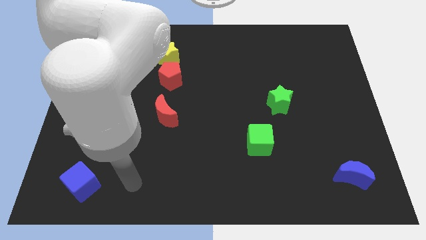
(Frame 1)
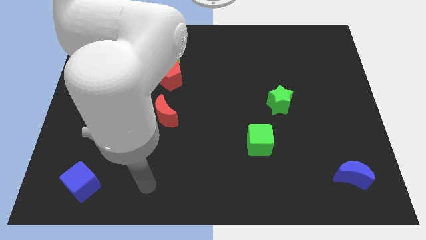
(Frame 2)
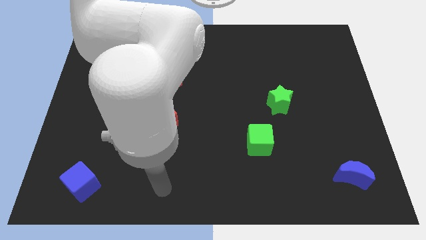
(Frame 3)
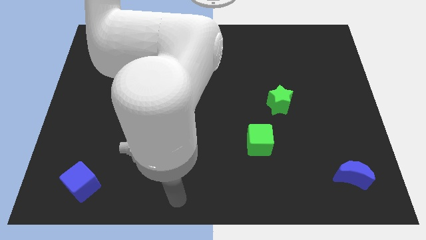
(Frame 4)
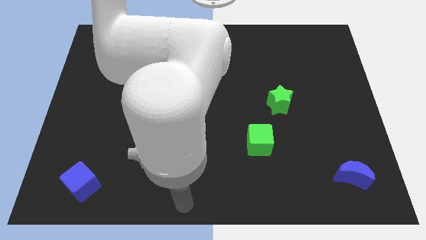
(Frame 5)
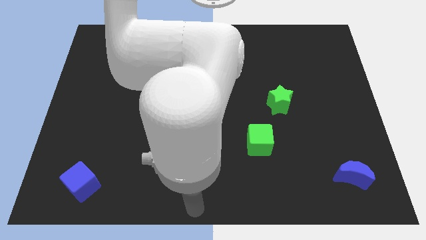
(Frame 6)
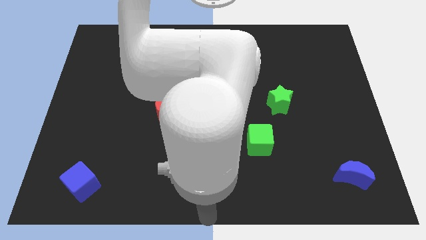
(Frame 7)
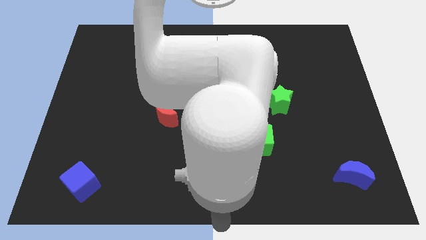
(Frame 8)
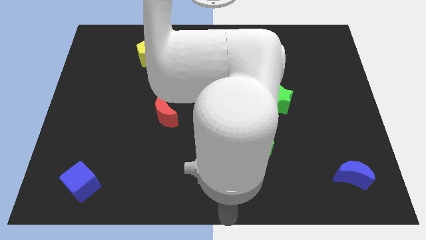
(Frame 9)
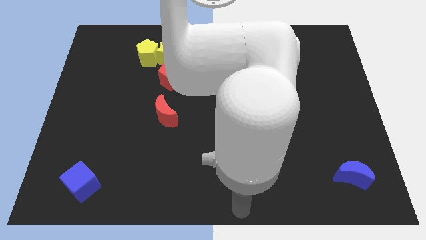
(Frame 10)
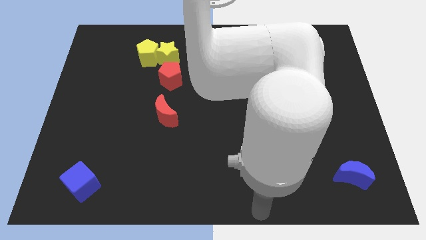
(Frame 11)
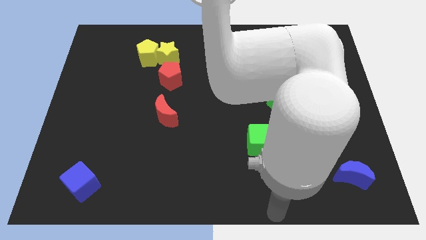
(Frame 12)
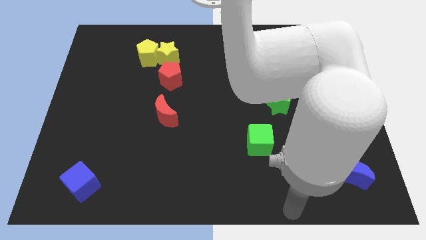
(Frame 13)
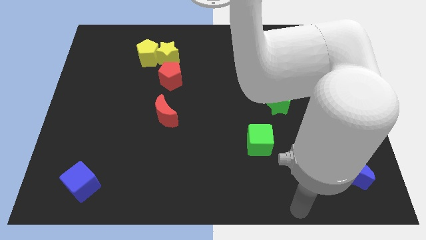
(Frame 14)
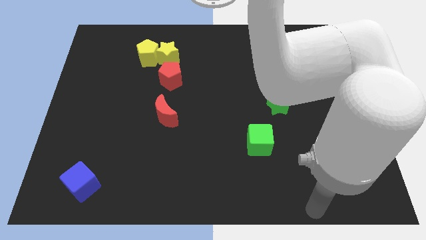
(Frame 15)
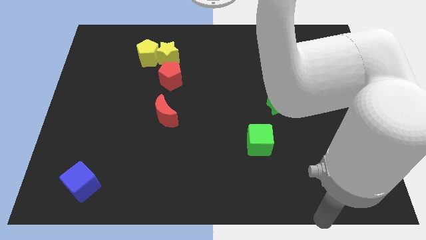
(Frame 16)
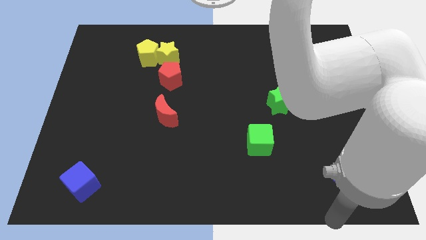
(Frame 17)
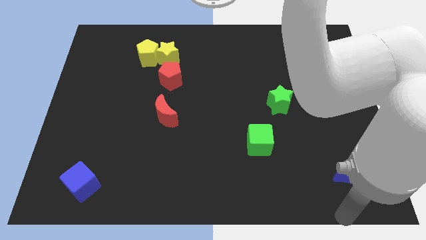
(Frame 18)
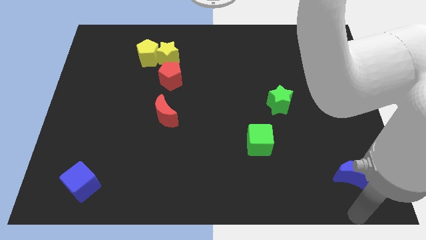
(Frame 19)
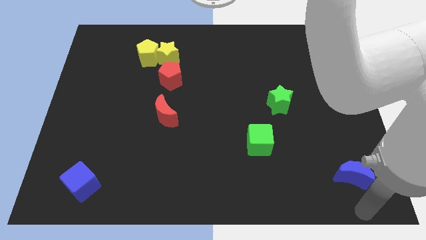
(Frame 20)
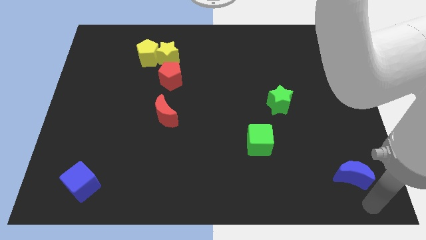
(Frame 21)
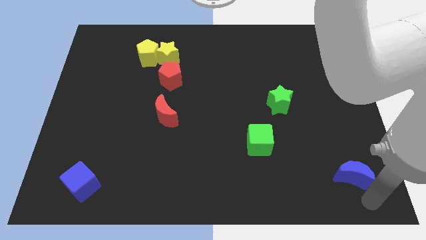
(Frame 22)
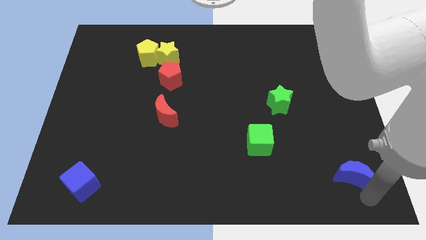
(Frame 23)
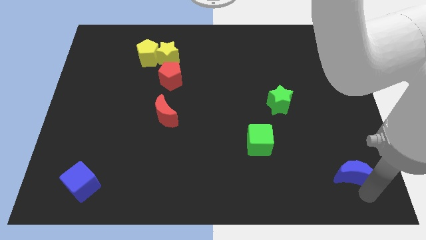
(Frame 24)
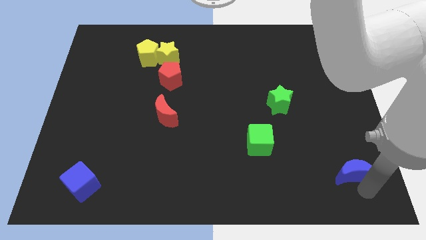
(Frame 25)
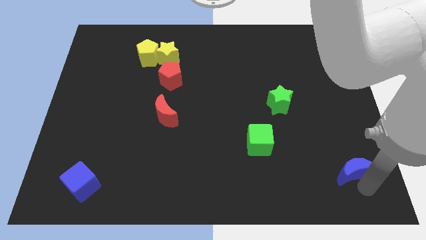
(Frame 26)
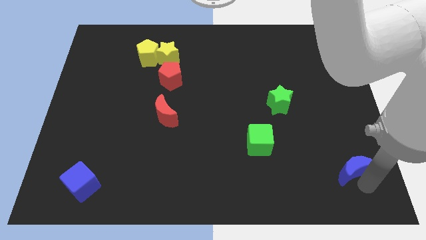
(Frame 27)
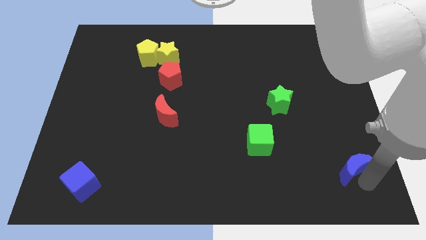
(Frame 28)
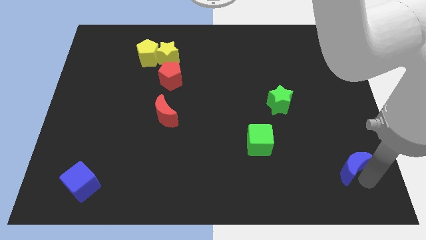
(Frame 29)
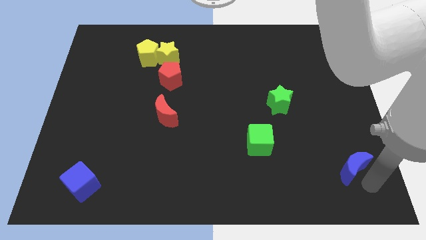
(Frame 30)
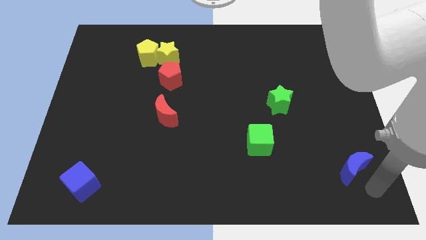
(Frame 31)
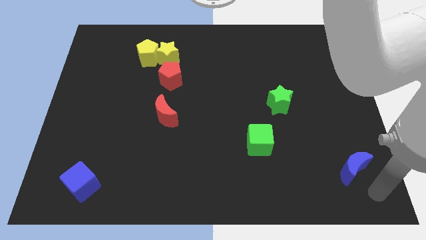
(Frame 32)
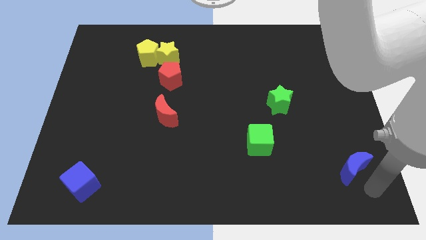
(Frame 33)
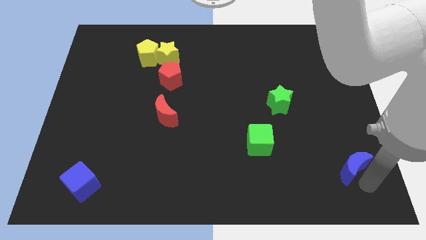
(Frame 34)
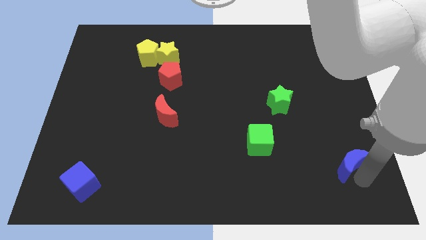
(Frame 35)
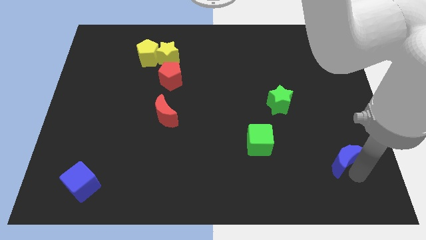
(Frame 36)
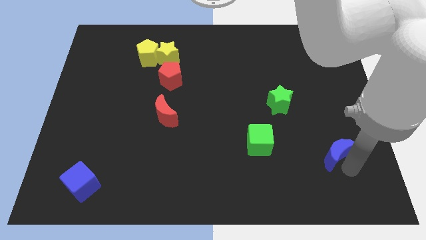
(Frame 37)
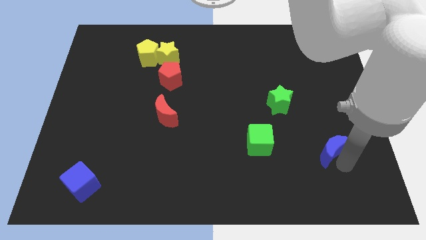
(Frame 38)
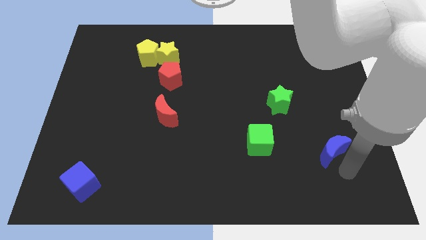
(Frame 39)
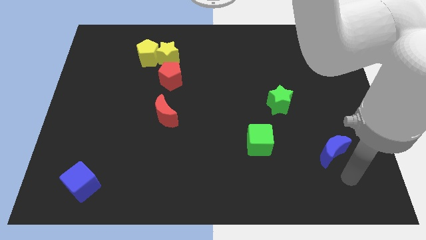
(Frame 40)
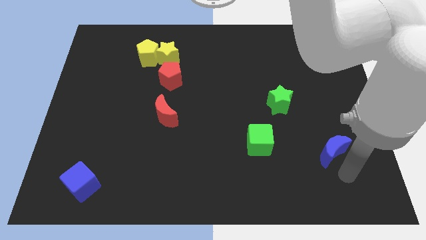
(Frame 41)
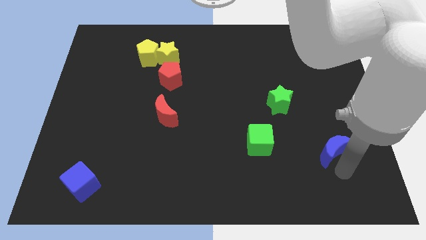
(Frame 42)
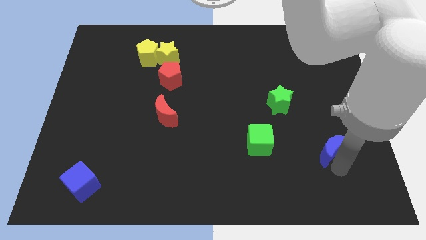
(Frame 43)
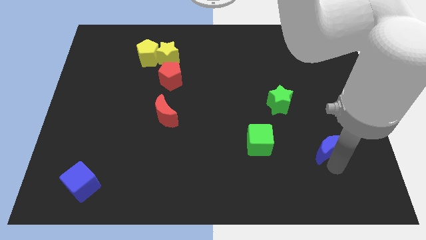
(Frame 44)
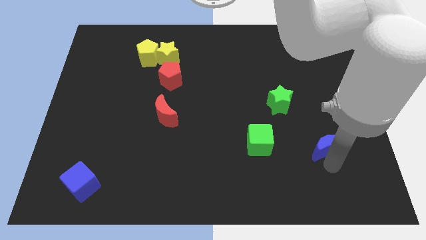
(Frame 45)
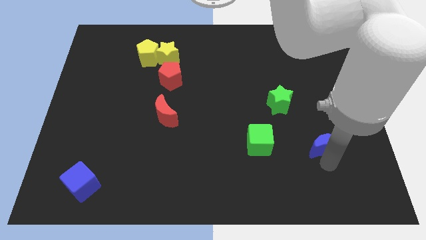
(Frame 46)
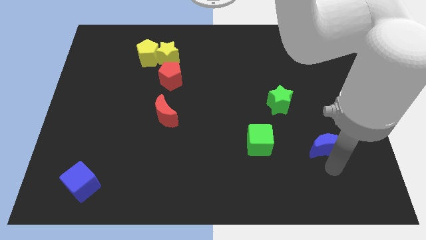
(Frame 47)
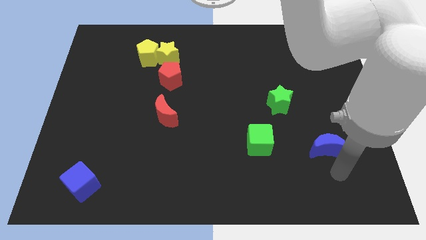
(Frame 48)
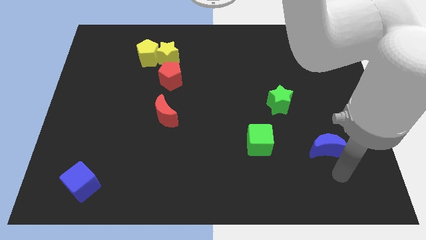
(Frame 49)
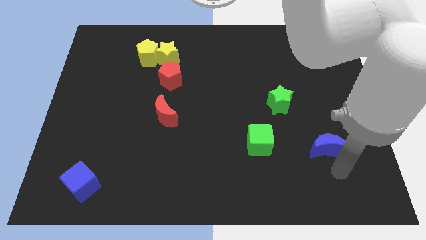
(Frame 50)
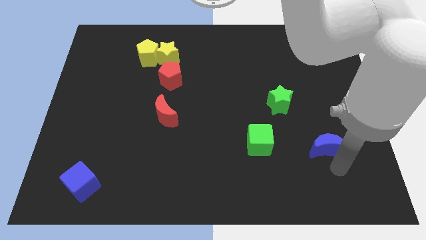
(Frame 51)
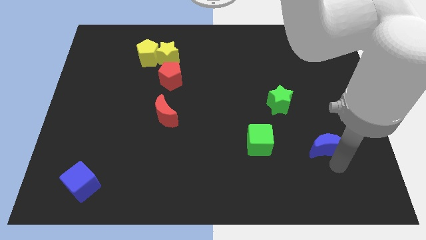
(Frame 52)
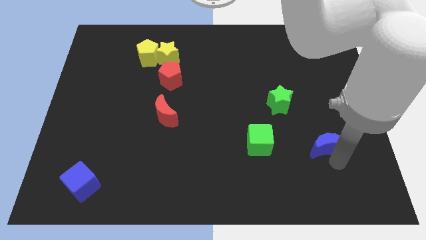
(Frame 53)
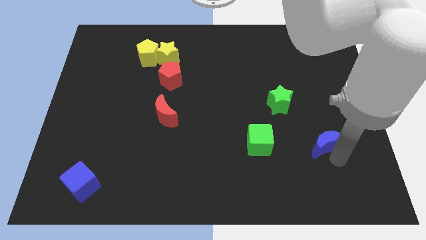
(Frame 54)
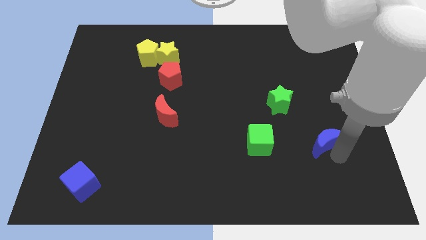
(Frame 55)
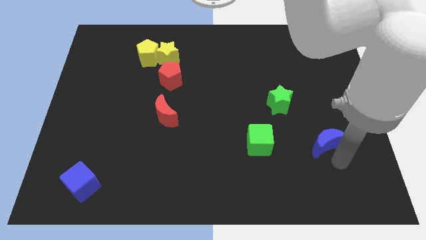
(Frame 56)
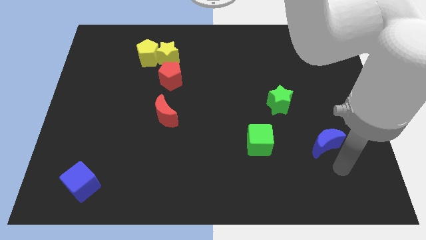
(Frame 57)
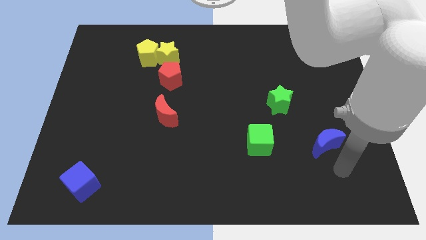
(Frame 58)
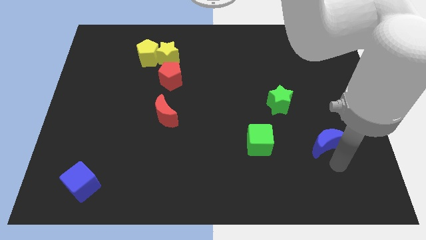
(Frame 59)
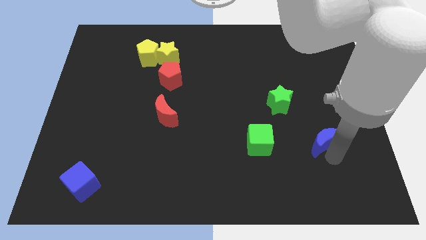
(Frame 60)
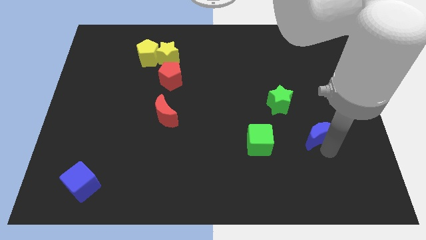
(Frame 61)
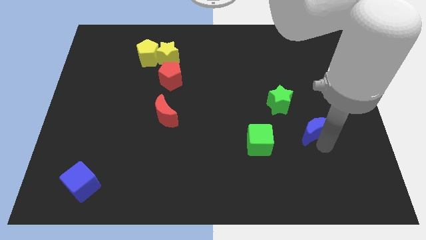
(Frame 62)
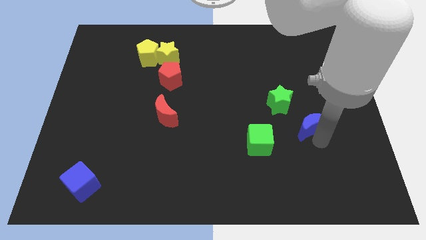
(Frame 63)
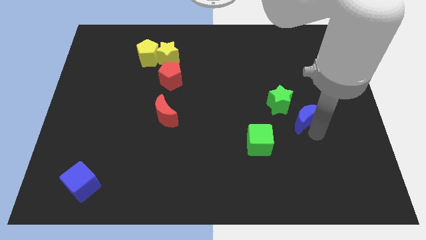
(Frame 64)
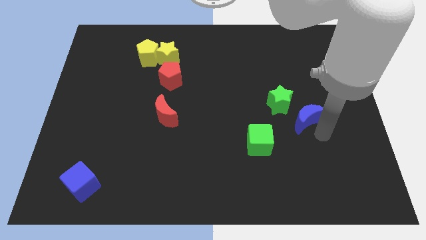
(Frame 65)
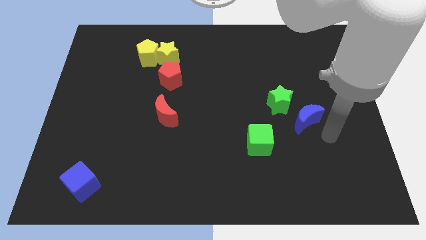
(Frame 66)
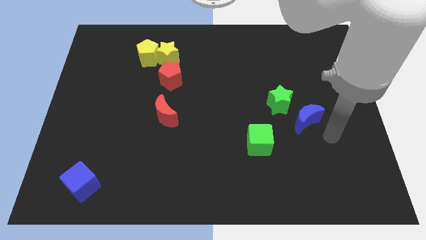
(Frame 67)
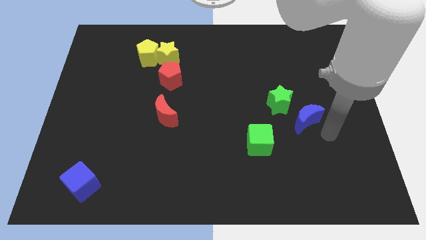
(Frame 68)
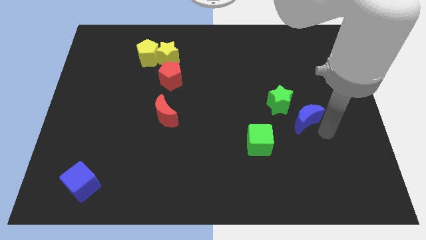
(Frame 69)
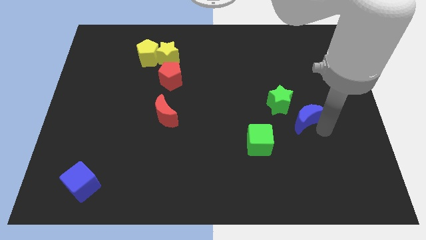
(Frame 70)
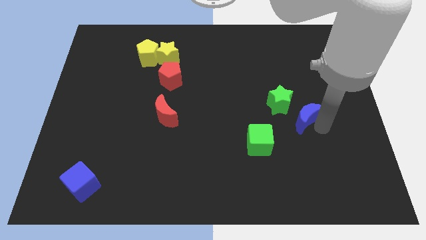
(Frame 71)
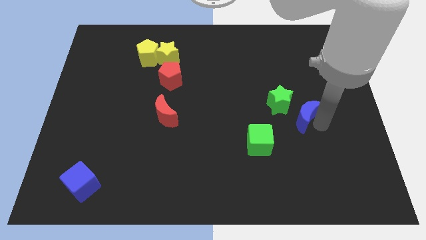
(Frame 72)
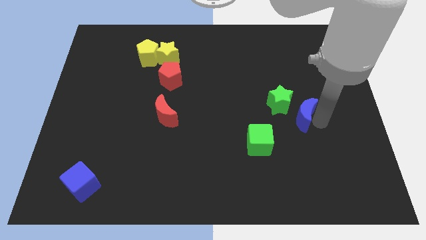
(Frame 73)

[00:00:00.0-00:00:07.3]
slide the blue moon to the green star
